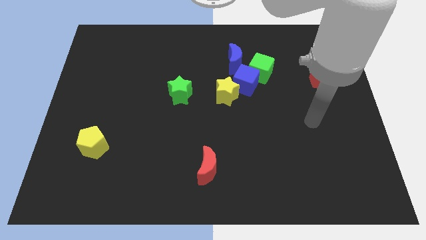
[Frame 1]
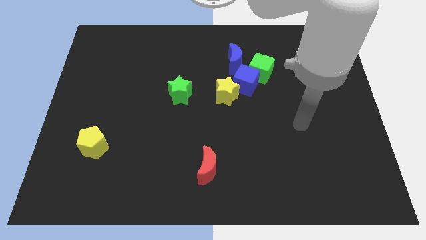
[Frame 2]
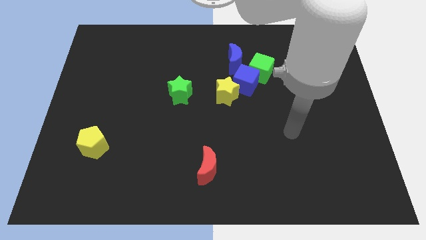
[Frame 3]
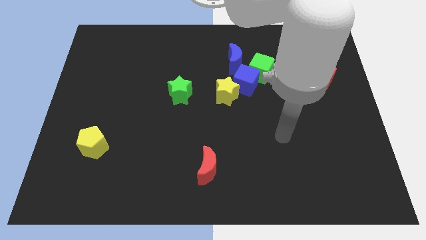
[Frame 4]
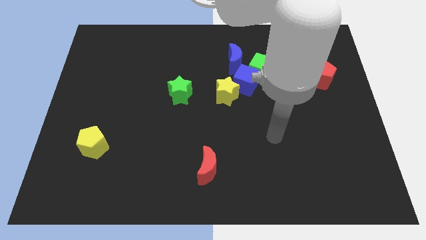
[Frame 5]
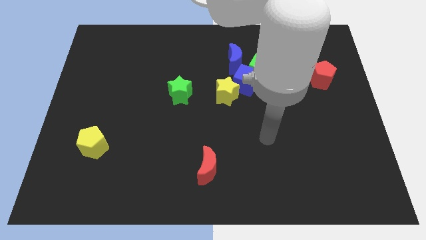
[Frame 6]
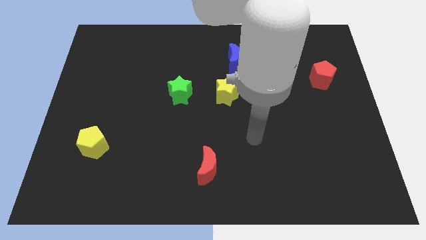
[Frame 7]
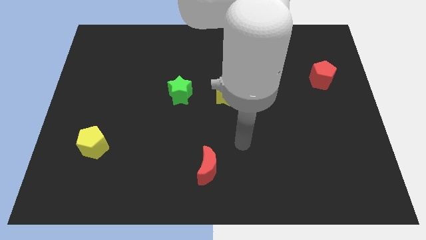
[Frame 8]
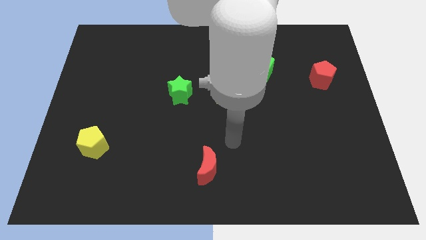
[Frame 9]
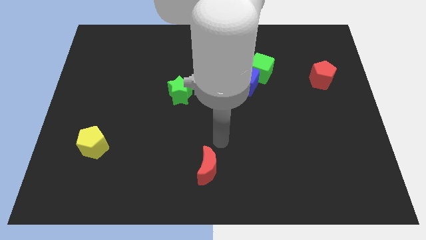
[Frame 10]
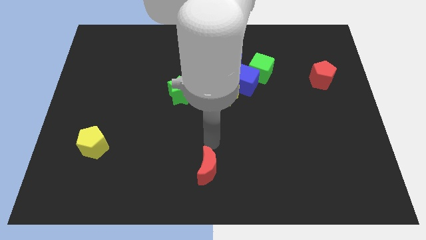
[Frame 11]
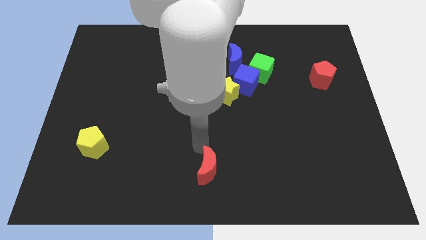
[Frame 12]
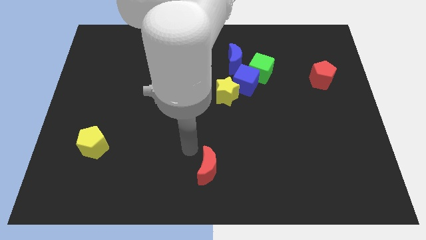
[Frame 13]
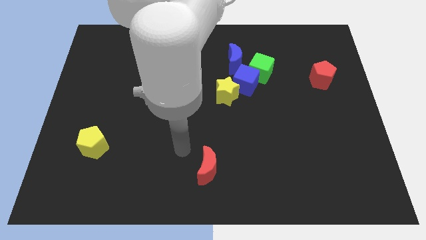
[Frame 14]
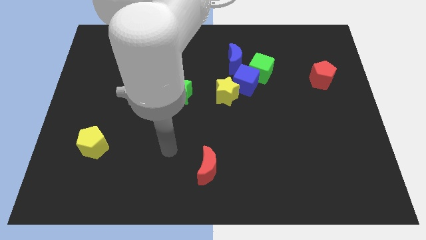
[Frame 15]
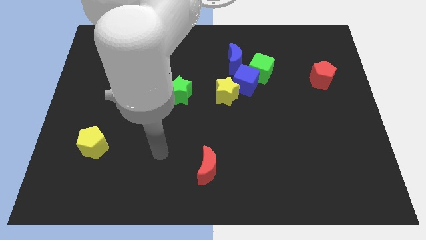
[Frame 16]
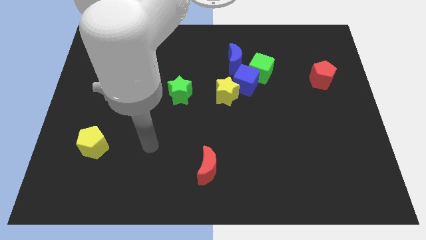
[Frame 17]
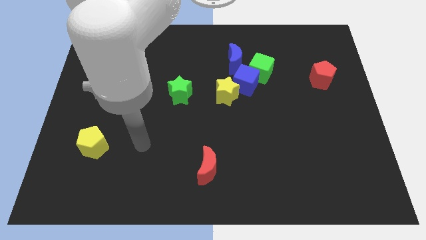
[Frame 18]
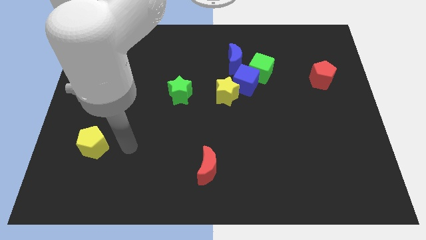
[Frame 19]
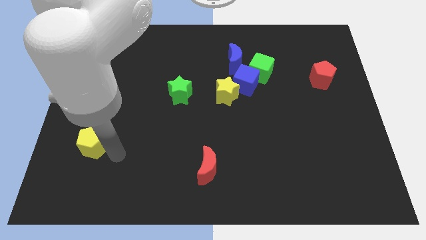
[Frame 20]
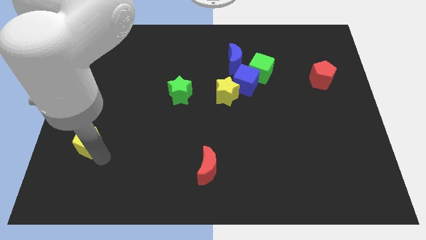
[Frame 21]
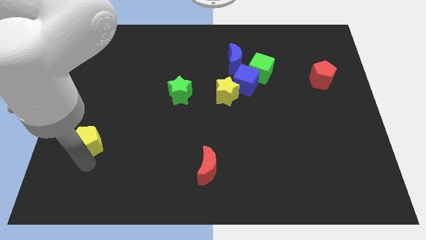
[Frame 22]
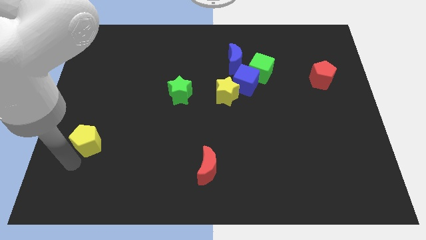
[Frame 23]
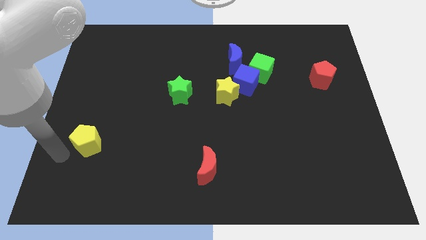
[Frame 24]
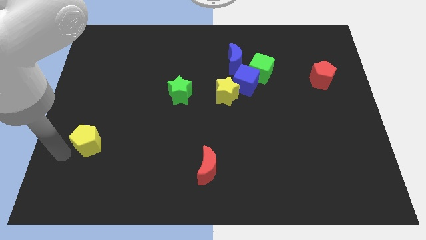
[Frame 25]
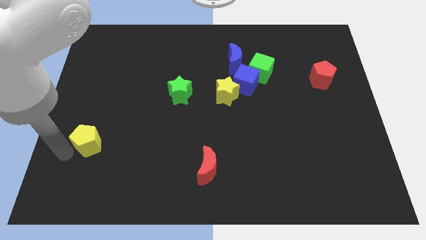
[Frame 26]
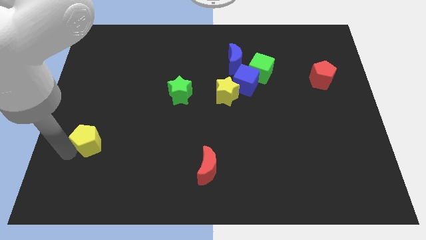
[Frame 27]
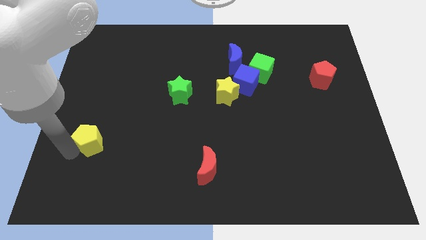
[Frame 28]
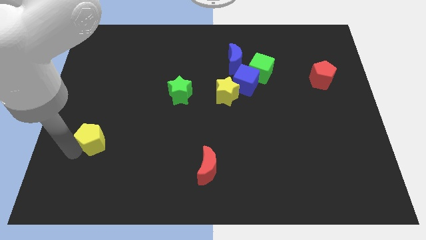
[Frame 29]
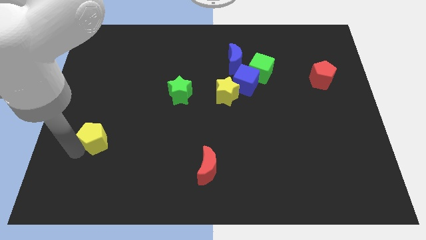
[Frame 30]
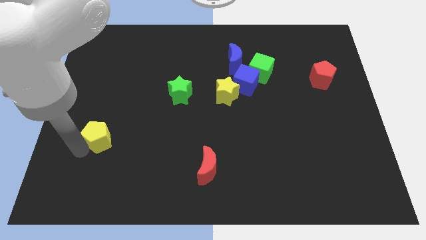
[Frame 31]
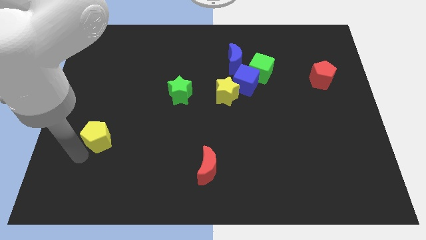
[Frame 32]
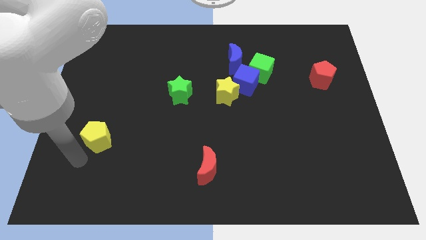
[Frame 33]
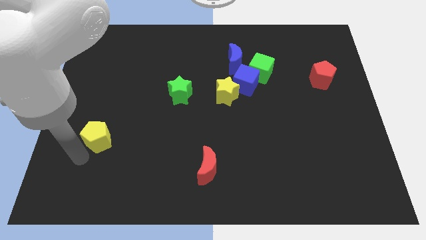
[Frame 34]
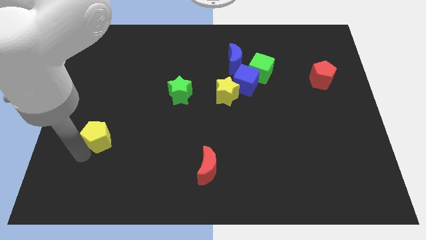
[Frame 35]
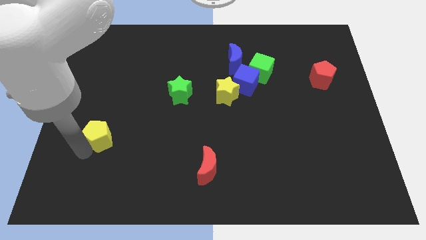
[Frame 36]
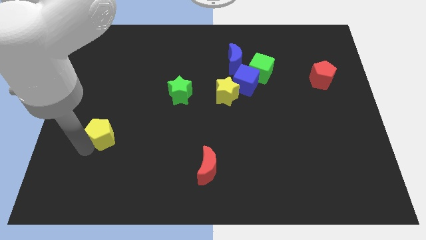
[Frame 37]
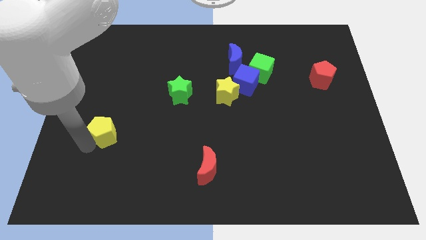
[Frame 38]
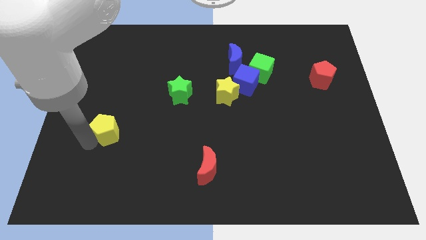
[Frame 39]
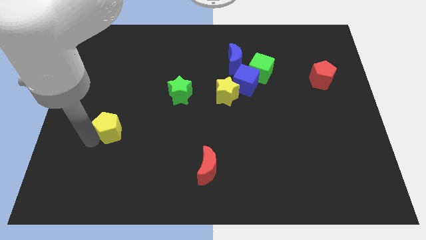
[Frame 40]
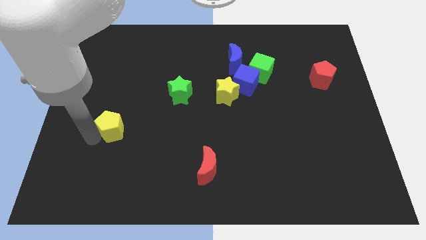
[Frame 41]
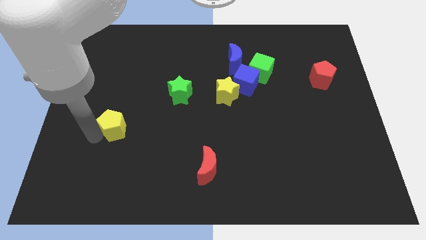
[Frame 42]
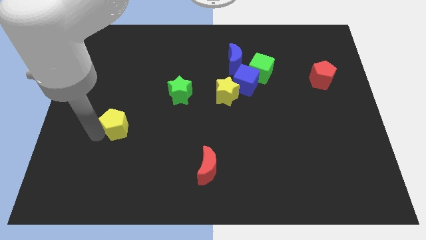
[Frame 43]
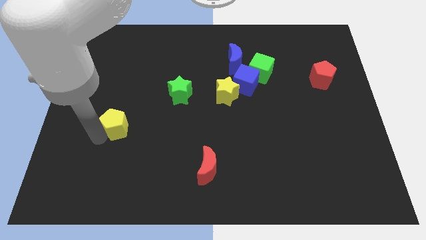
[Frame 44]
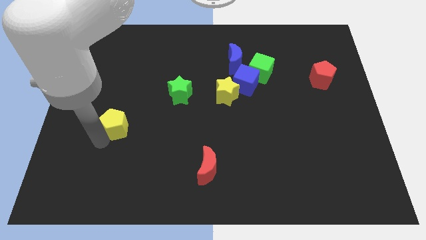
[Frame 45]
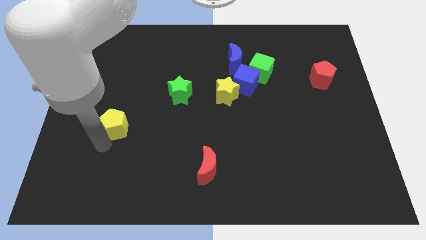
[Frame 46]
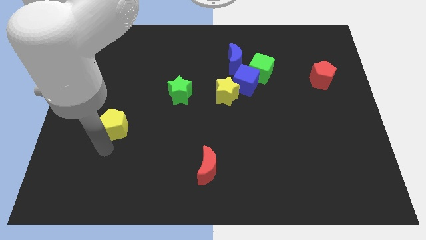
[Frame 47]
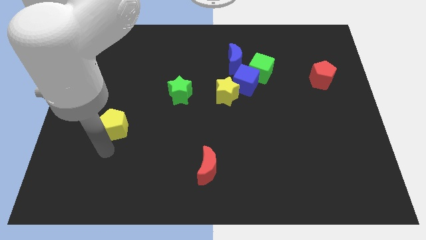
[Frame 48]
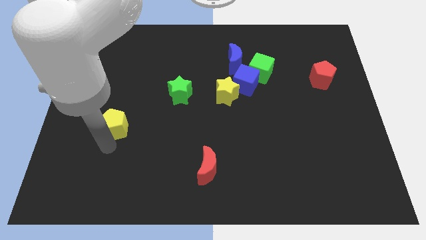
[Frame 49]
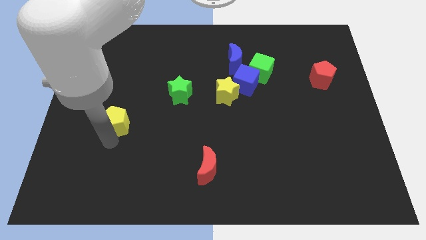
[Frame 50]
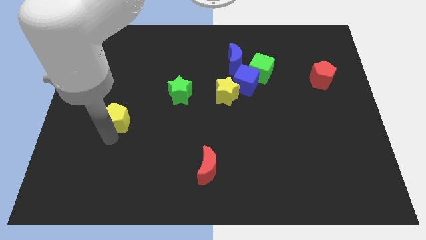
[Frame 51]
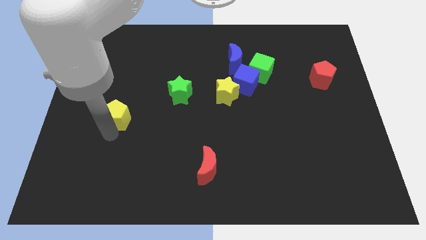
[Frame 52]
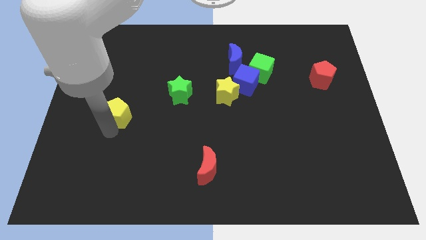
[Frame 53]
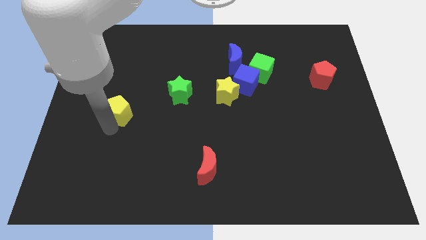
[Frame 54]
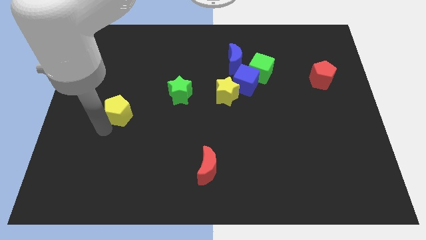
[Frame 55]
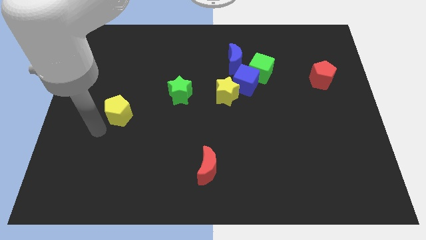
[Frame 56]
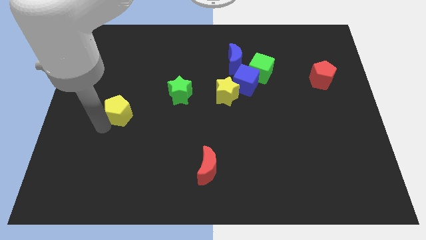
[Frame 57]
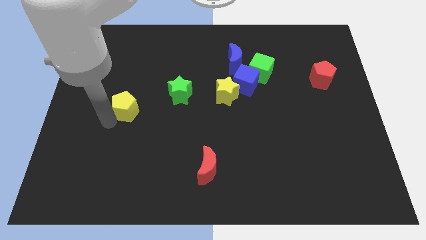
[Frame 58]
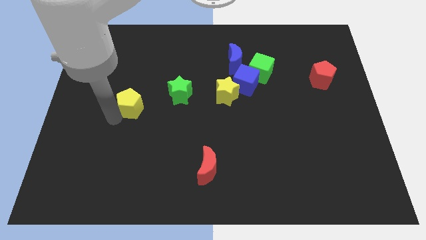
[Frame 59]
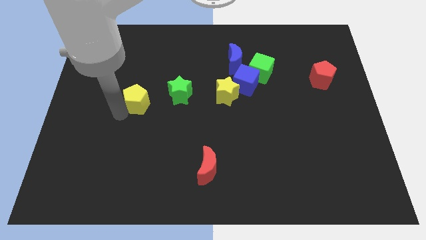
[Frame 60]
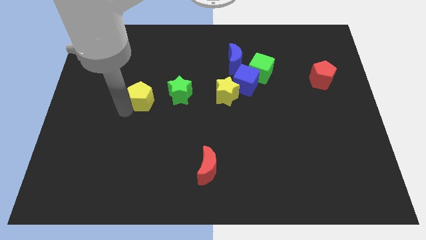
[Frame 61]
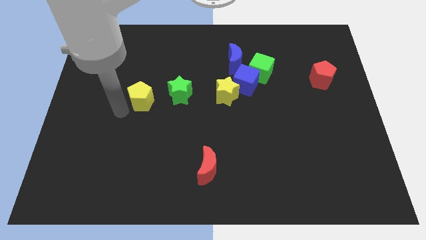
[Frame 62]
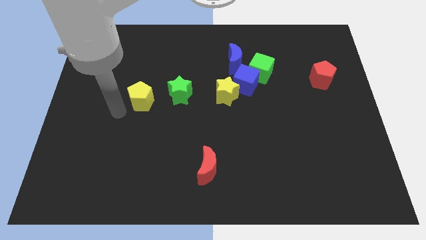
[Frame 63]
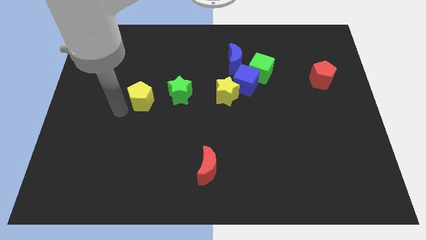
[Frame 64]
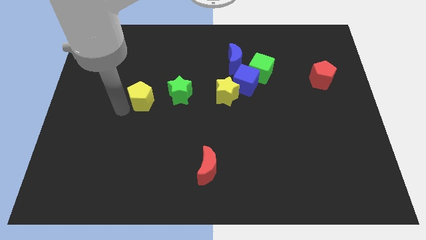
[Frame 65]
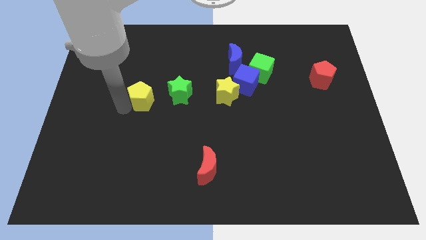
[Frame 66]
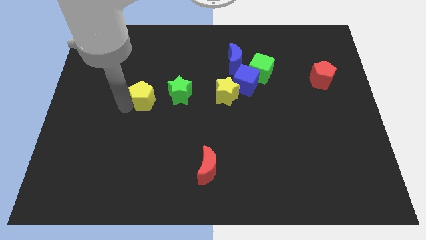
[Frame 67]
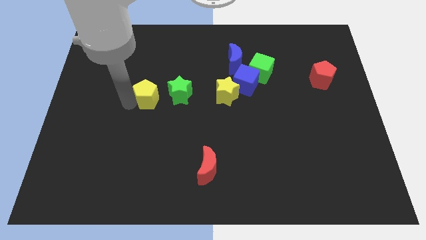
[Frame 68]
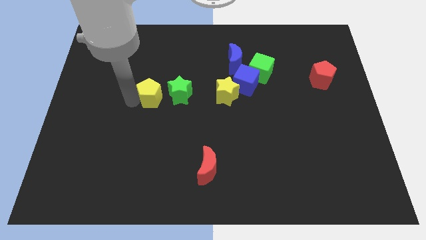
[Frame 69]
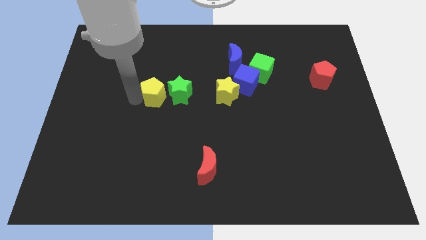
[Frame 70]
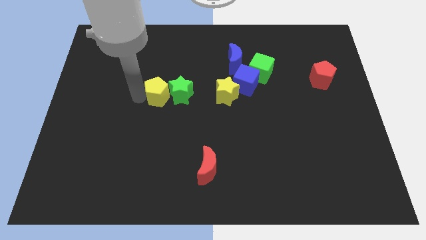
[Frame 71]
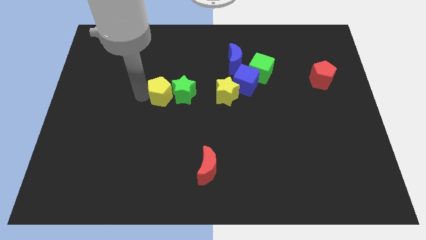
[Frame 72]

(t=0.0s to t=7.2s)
push the yellow pentagon diagonally up and to the right

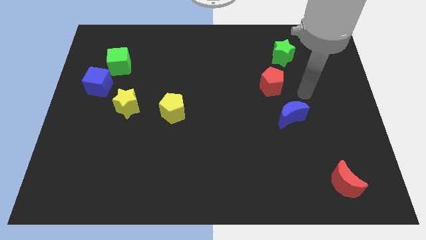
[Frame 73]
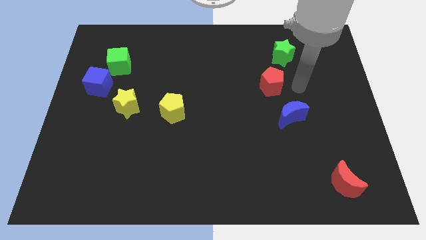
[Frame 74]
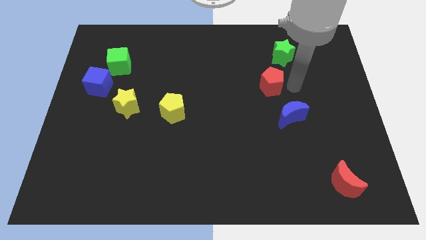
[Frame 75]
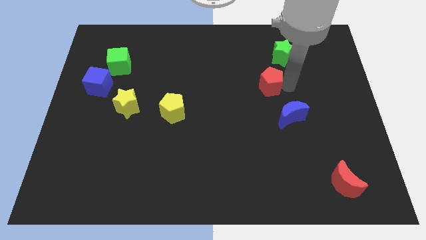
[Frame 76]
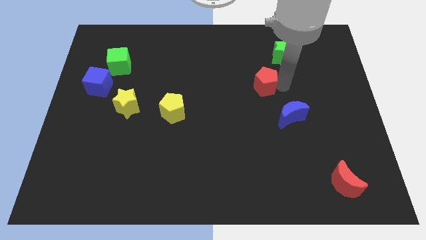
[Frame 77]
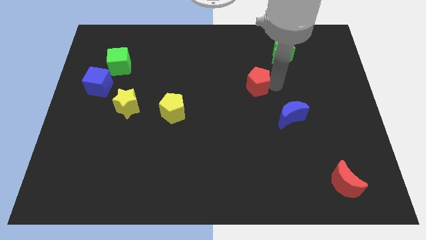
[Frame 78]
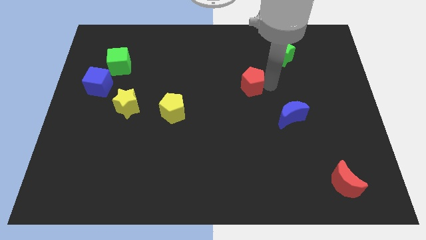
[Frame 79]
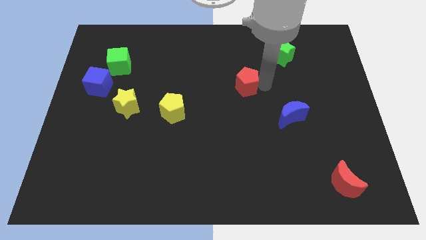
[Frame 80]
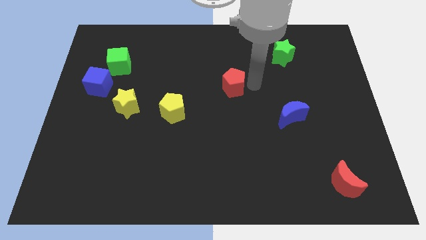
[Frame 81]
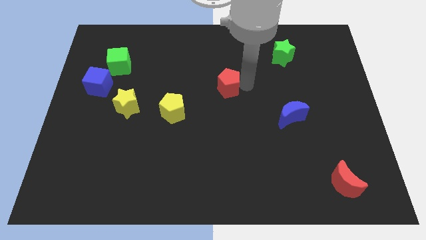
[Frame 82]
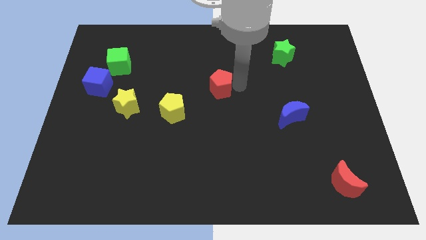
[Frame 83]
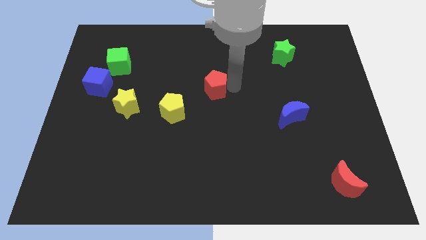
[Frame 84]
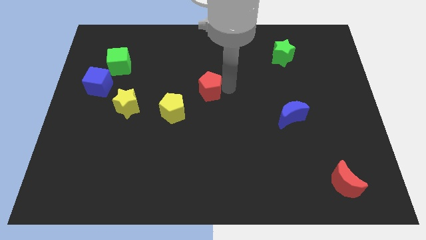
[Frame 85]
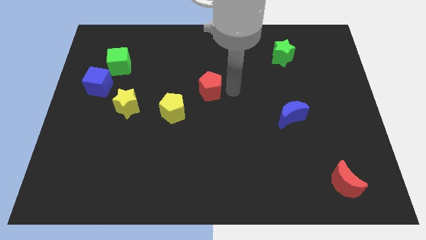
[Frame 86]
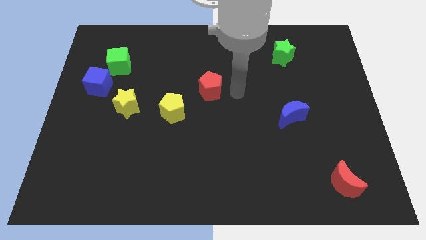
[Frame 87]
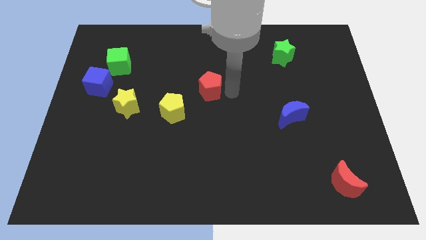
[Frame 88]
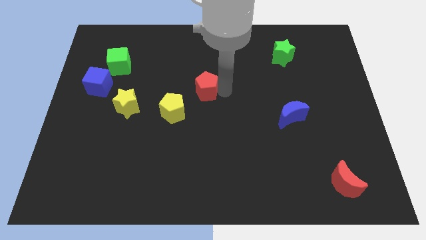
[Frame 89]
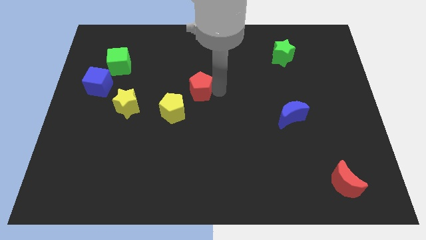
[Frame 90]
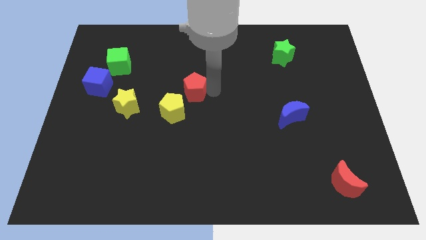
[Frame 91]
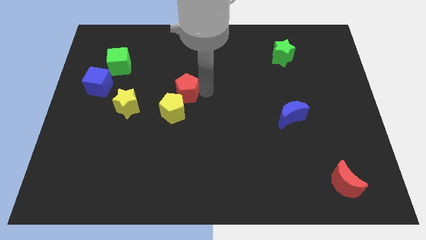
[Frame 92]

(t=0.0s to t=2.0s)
move the red pentagon left
